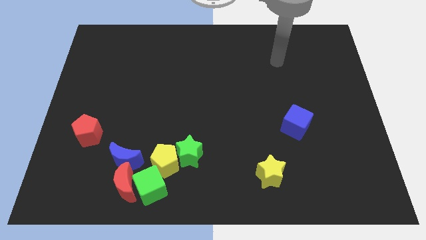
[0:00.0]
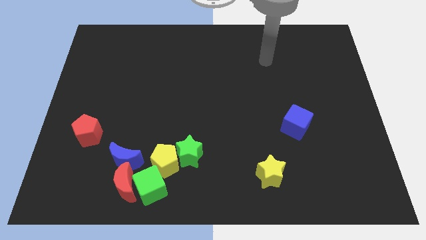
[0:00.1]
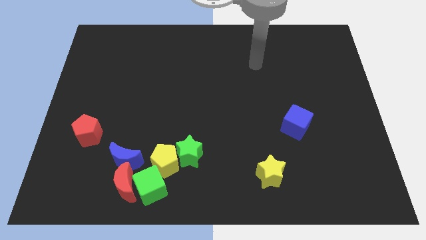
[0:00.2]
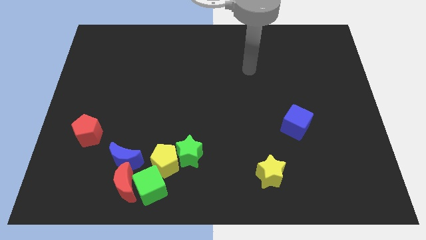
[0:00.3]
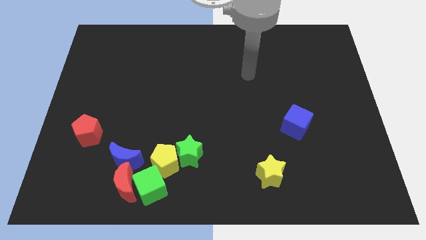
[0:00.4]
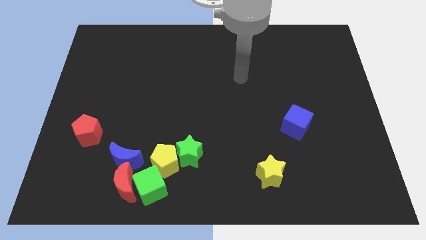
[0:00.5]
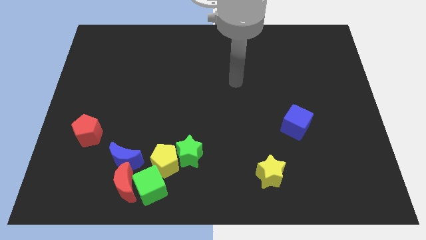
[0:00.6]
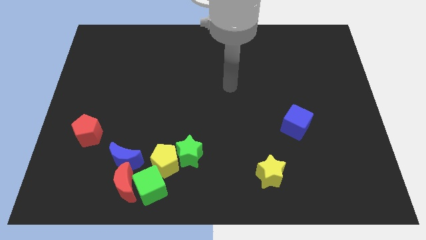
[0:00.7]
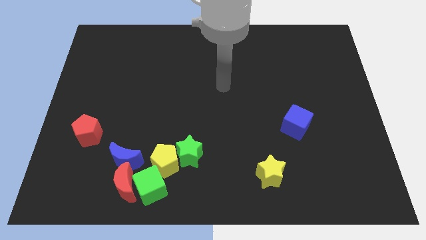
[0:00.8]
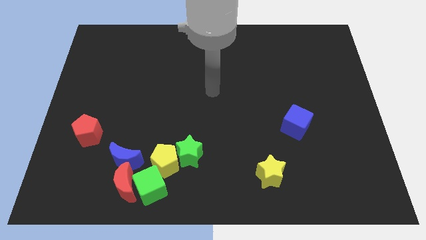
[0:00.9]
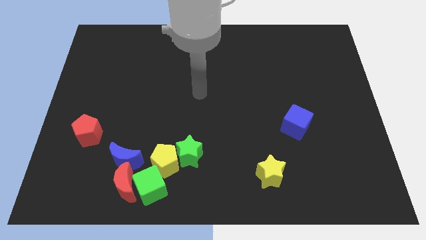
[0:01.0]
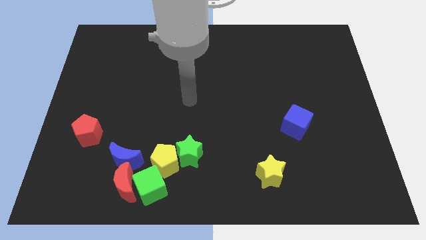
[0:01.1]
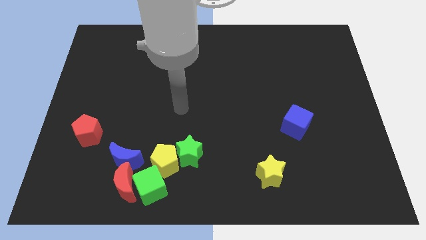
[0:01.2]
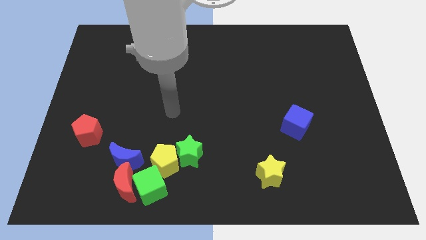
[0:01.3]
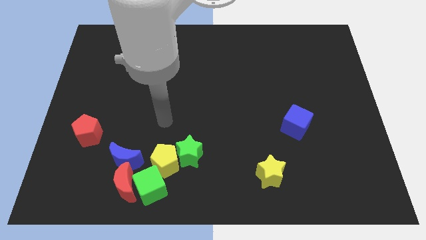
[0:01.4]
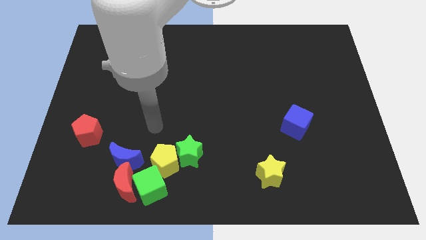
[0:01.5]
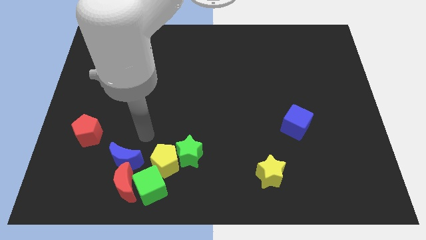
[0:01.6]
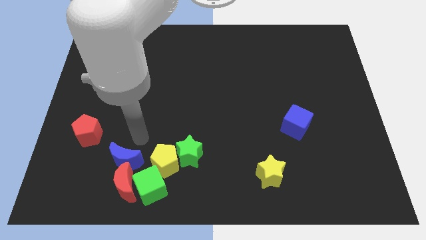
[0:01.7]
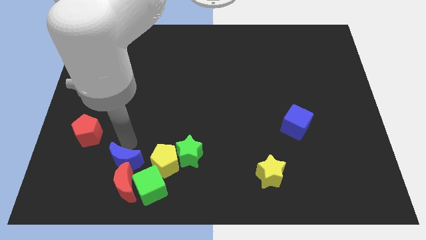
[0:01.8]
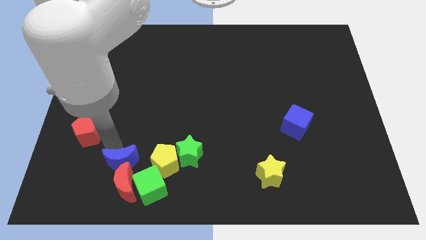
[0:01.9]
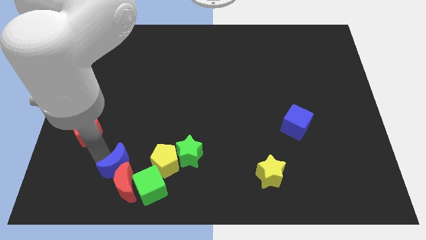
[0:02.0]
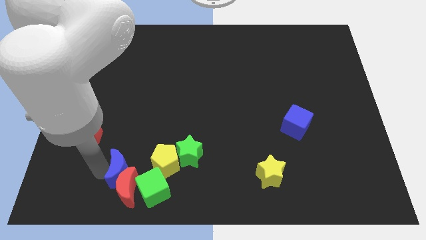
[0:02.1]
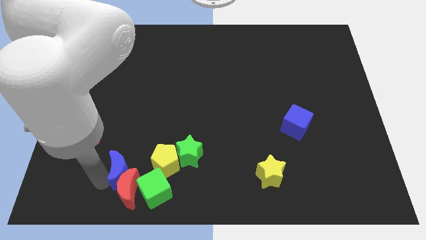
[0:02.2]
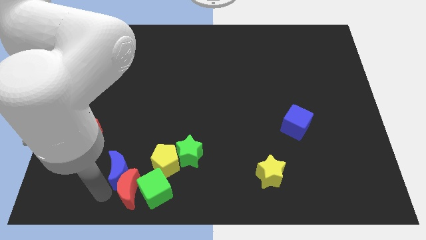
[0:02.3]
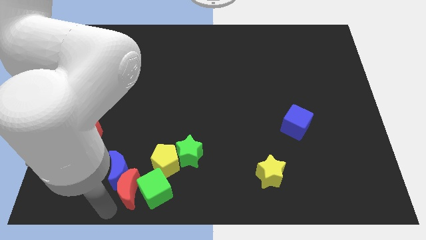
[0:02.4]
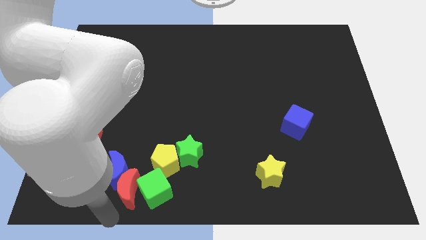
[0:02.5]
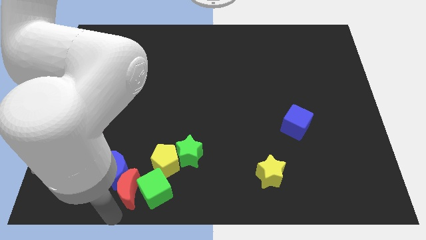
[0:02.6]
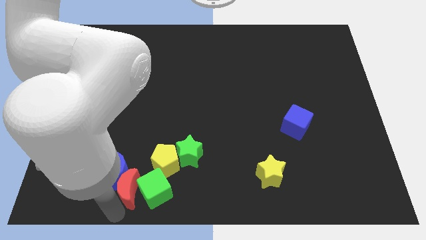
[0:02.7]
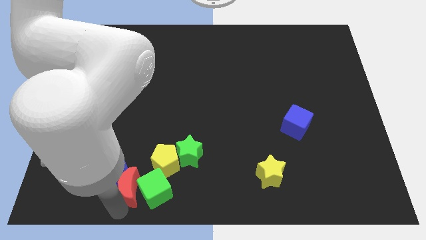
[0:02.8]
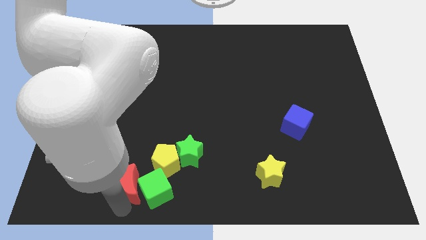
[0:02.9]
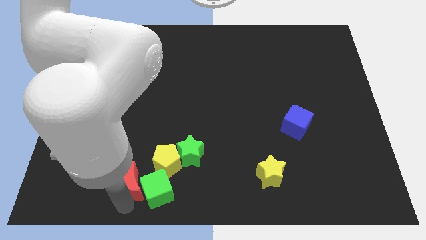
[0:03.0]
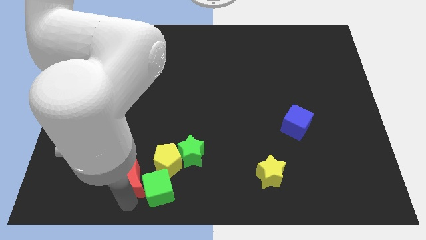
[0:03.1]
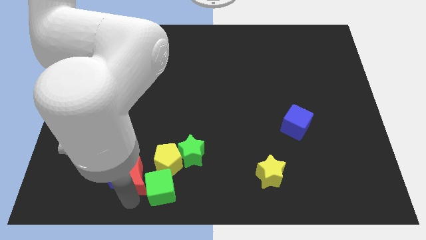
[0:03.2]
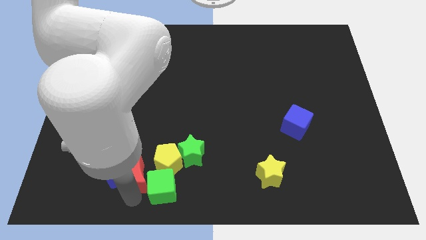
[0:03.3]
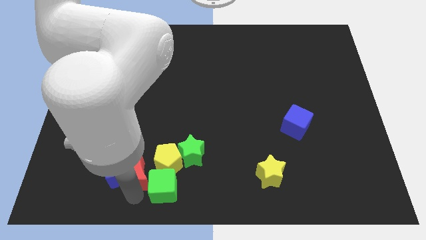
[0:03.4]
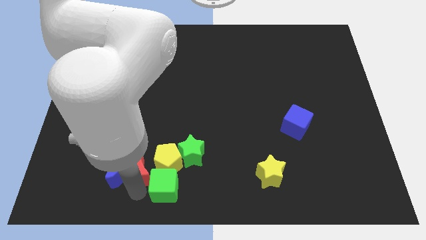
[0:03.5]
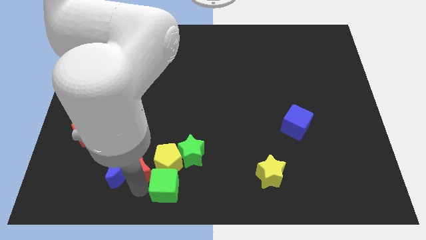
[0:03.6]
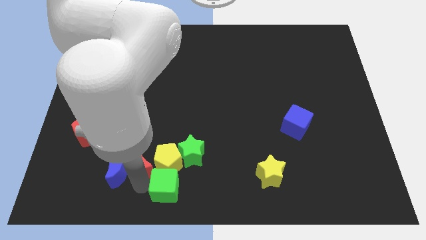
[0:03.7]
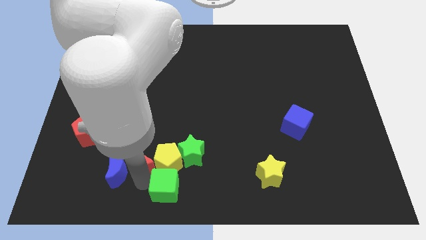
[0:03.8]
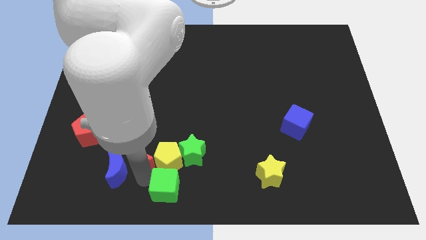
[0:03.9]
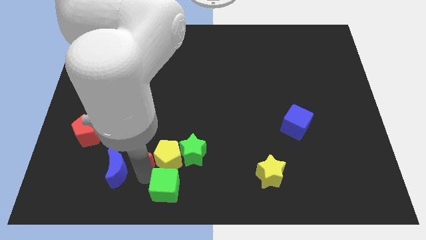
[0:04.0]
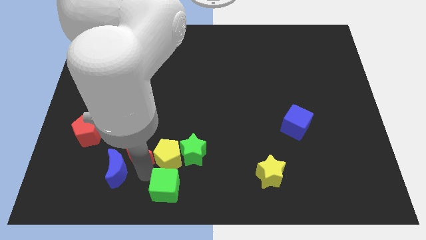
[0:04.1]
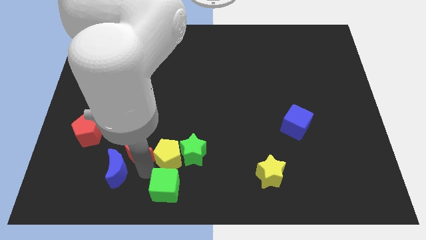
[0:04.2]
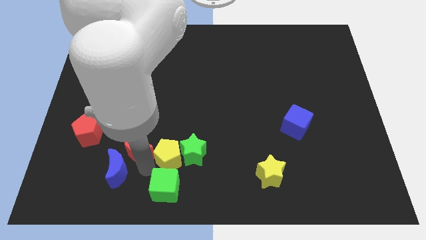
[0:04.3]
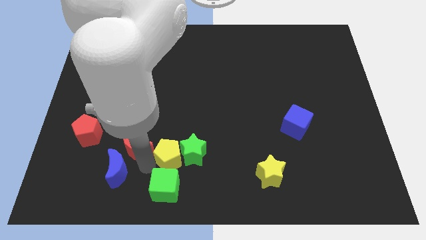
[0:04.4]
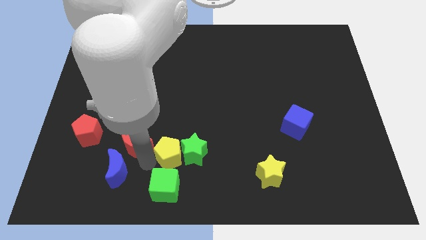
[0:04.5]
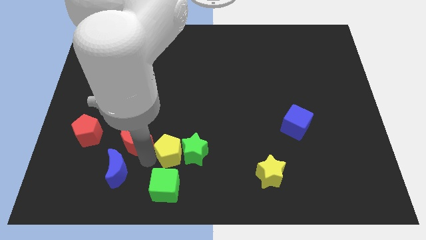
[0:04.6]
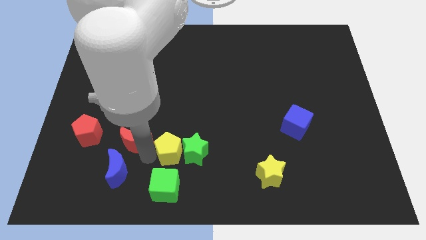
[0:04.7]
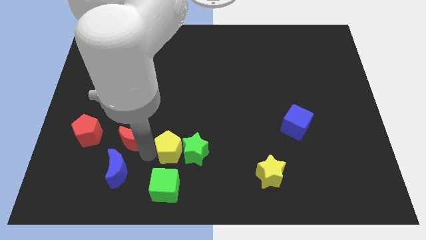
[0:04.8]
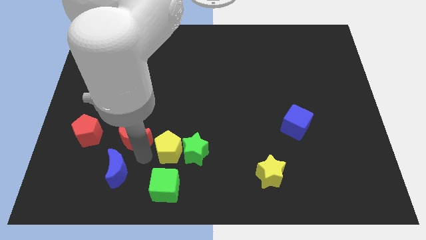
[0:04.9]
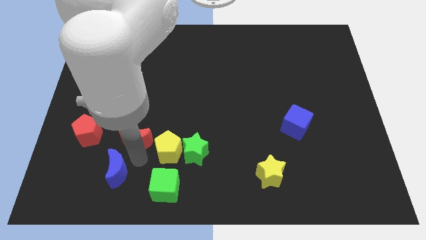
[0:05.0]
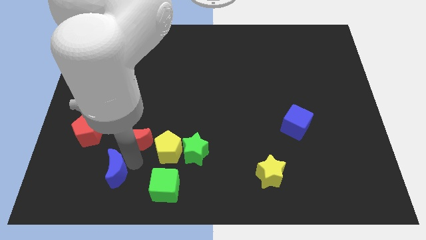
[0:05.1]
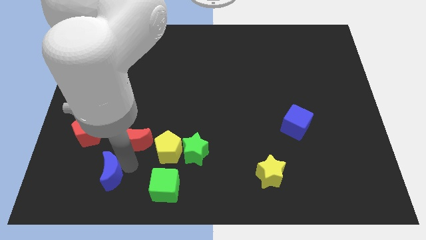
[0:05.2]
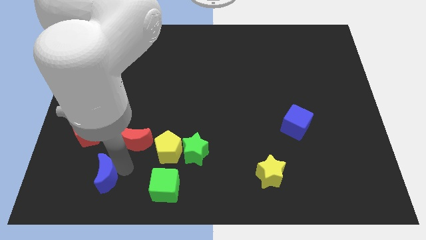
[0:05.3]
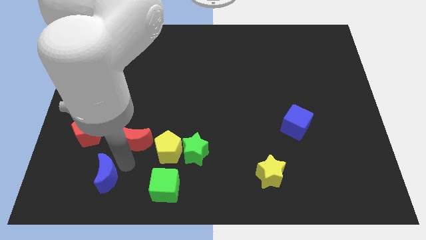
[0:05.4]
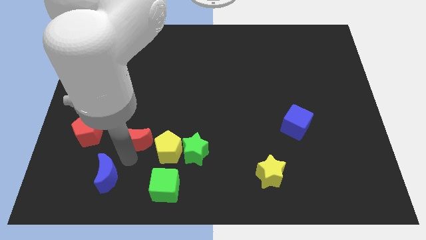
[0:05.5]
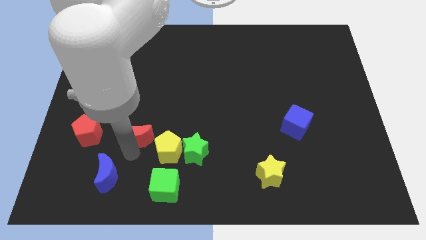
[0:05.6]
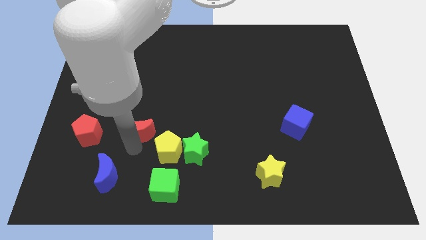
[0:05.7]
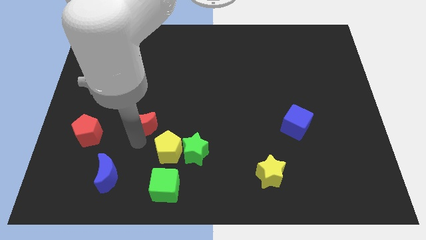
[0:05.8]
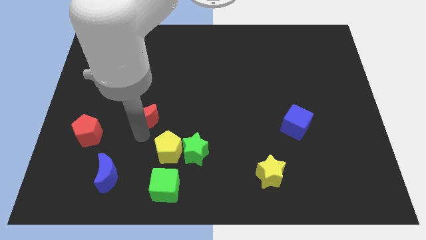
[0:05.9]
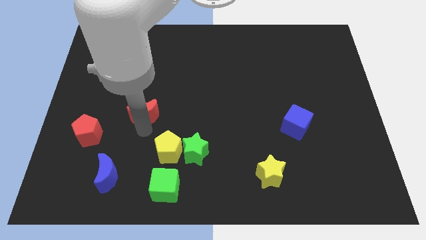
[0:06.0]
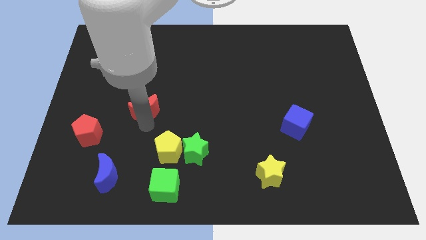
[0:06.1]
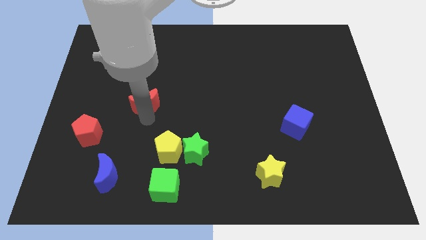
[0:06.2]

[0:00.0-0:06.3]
move the red moon upwards

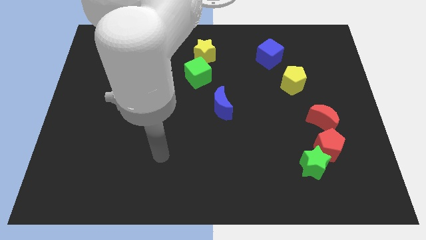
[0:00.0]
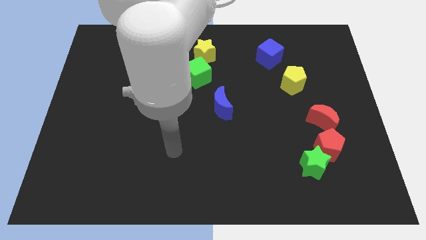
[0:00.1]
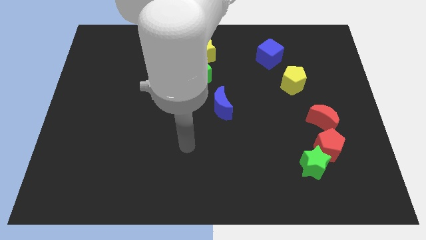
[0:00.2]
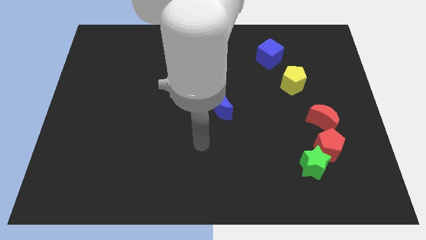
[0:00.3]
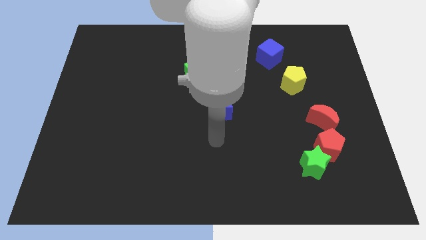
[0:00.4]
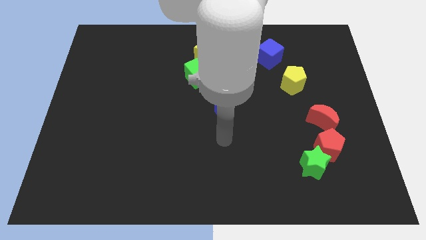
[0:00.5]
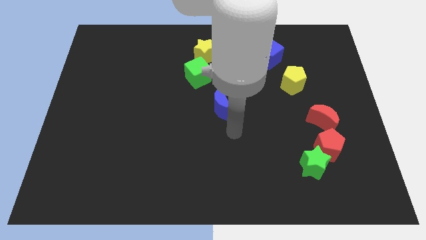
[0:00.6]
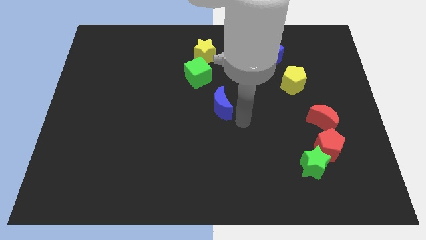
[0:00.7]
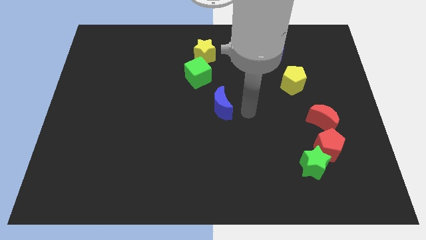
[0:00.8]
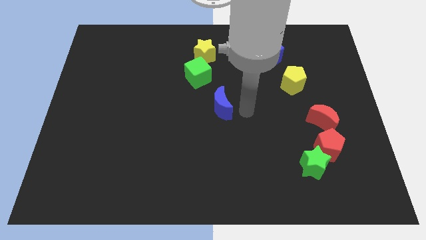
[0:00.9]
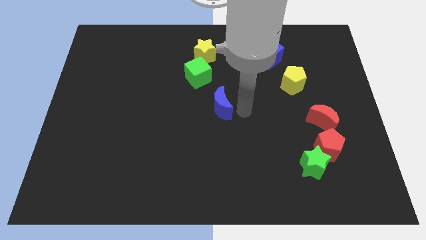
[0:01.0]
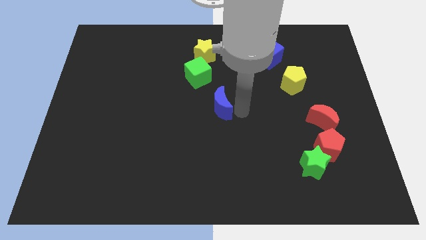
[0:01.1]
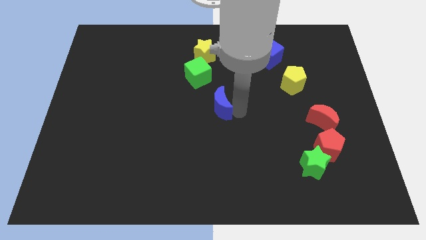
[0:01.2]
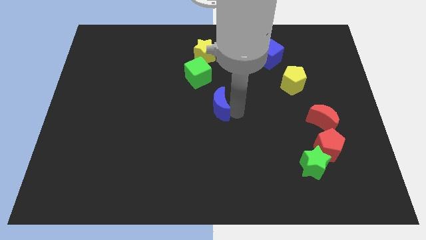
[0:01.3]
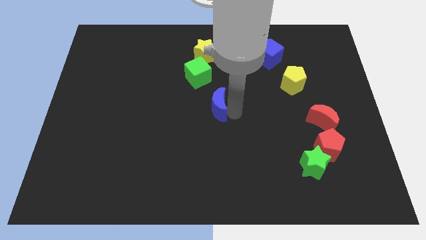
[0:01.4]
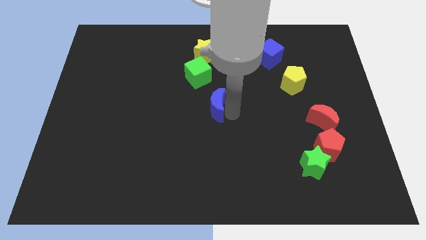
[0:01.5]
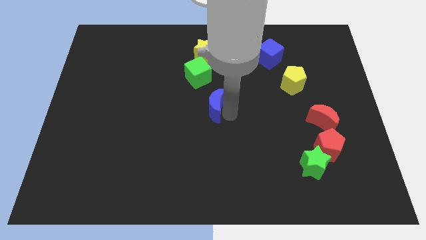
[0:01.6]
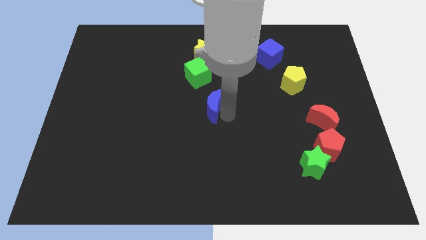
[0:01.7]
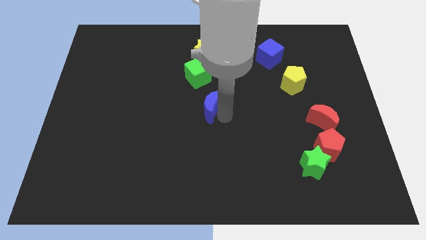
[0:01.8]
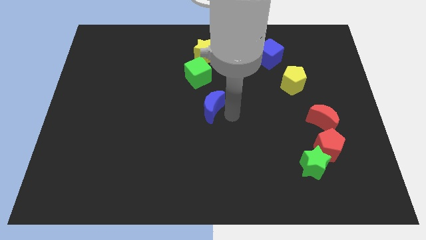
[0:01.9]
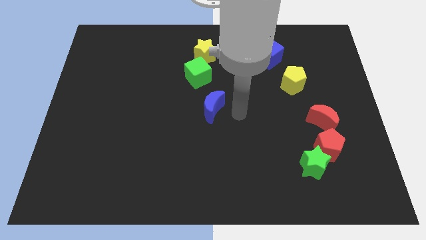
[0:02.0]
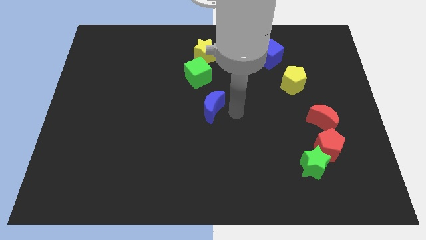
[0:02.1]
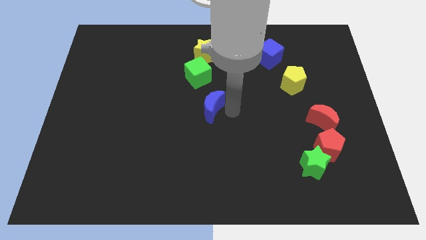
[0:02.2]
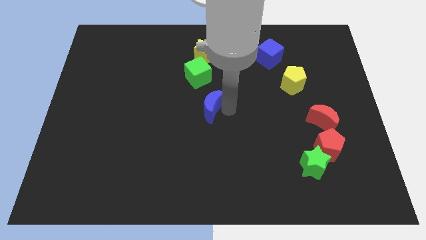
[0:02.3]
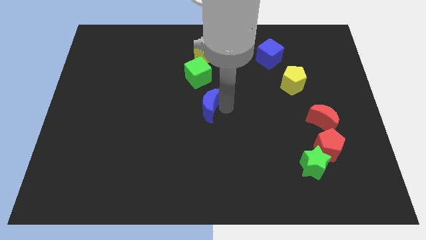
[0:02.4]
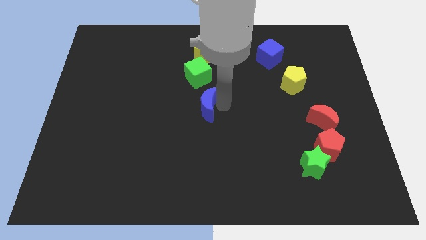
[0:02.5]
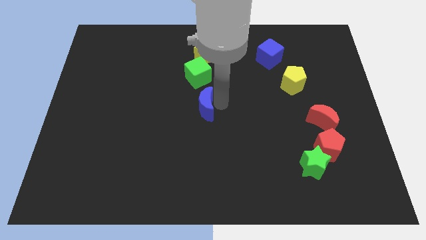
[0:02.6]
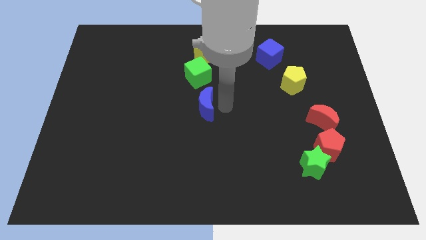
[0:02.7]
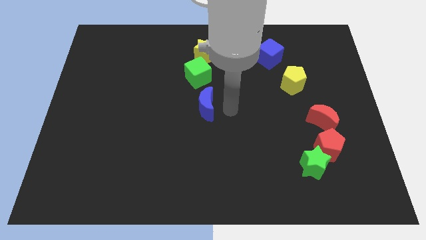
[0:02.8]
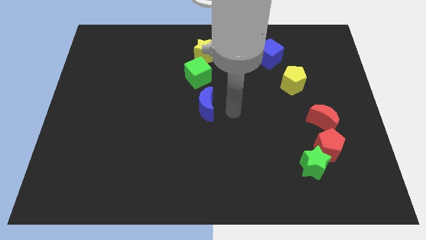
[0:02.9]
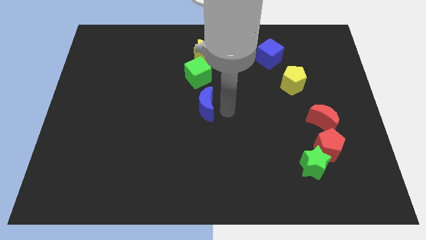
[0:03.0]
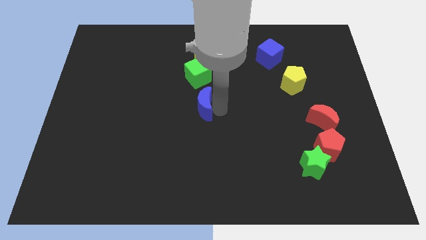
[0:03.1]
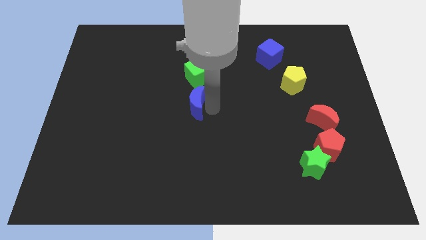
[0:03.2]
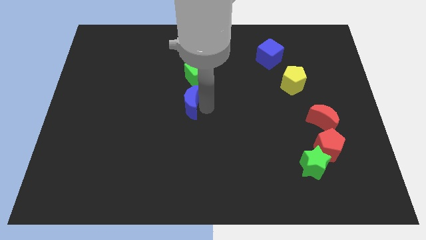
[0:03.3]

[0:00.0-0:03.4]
move the blue moon left a bit
